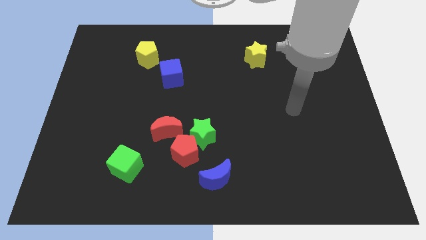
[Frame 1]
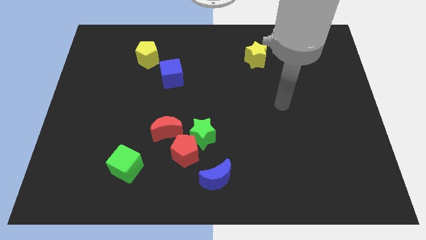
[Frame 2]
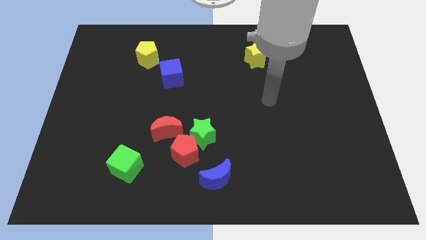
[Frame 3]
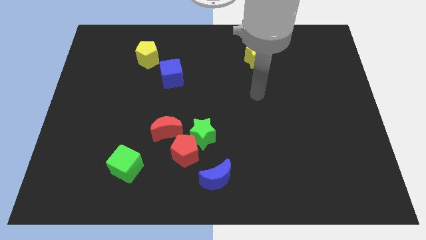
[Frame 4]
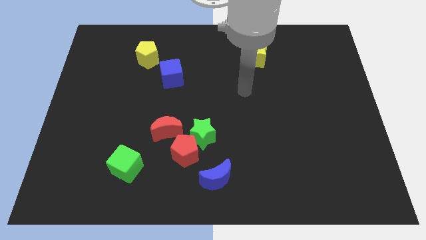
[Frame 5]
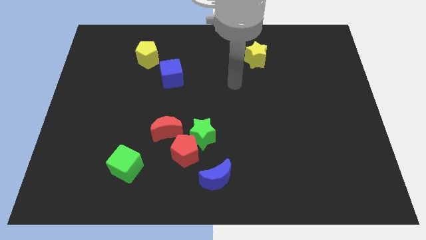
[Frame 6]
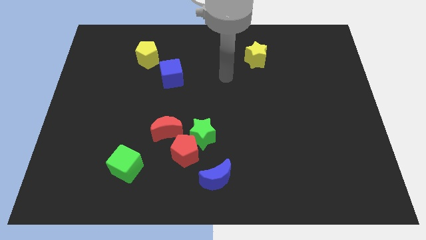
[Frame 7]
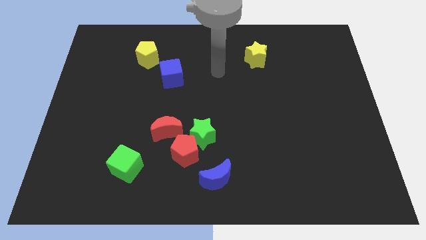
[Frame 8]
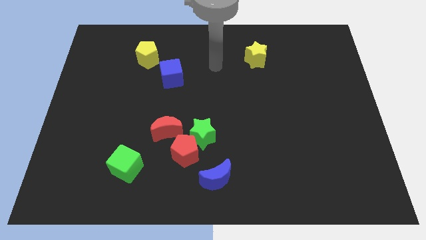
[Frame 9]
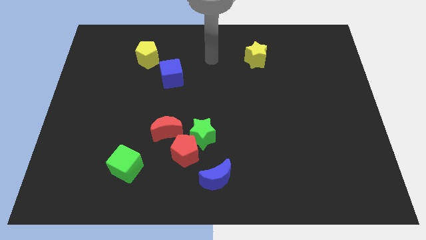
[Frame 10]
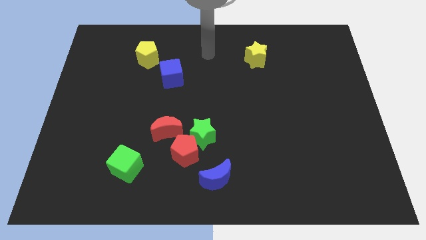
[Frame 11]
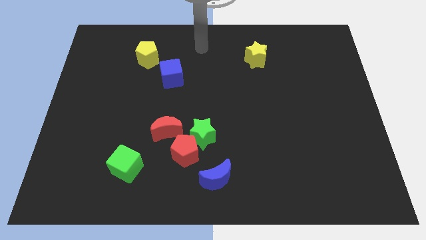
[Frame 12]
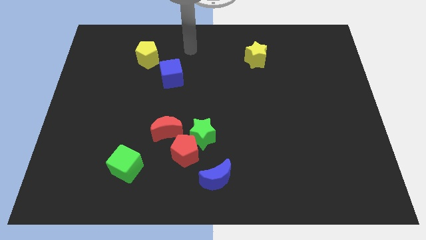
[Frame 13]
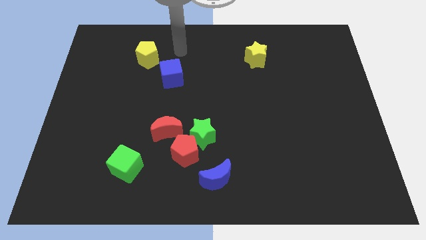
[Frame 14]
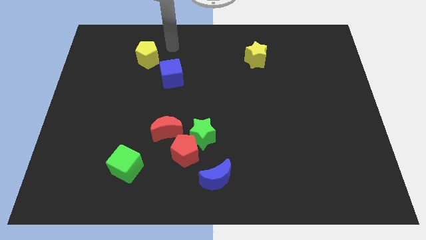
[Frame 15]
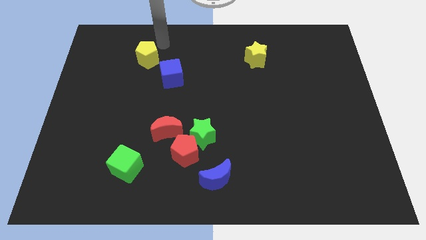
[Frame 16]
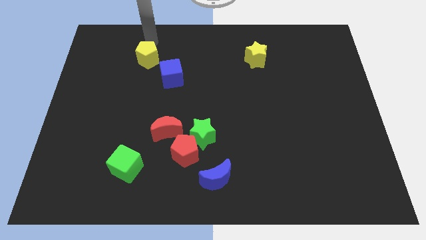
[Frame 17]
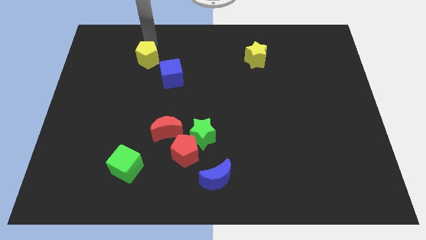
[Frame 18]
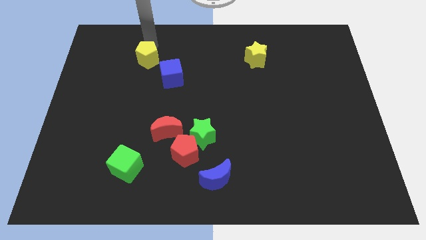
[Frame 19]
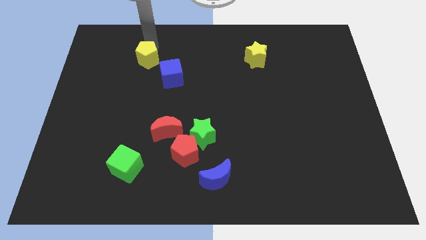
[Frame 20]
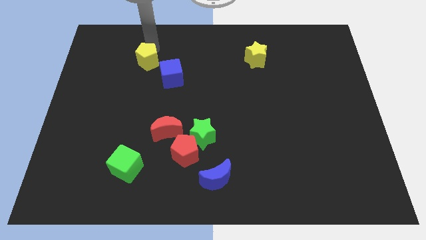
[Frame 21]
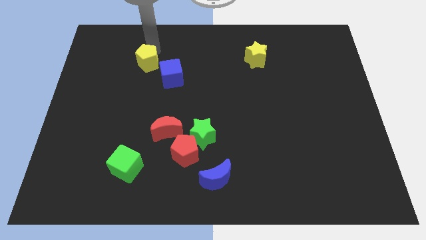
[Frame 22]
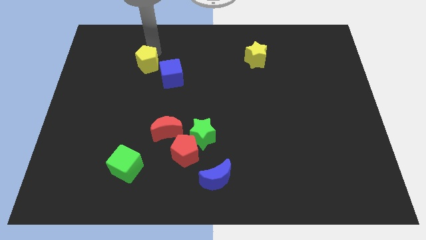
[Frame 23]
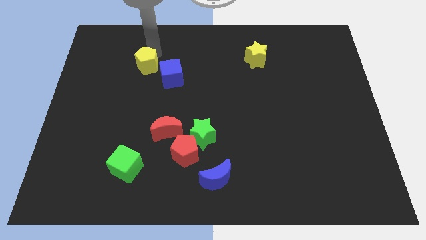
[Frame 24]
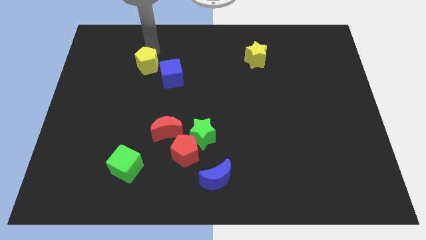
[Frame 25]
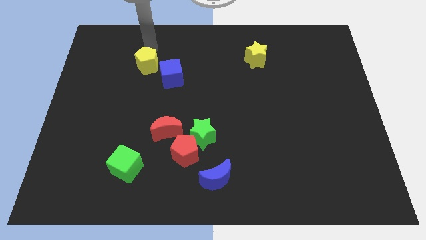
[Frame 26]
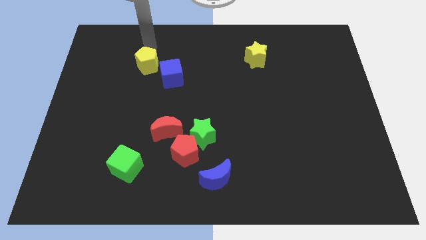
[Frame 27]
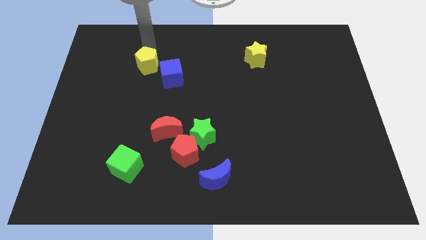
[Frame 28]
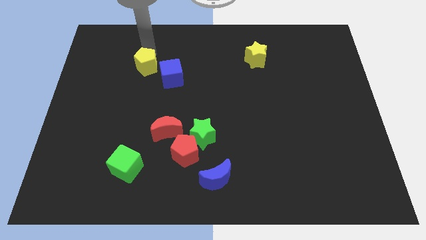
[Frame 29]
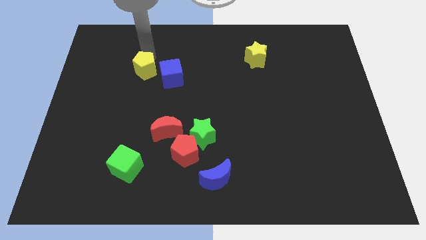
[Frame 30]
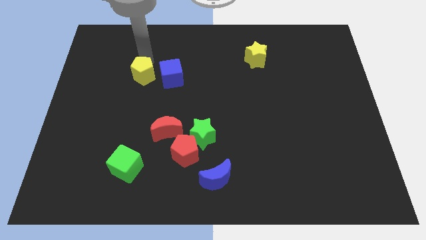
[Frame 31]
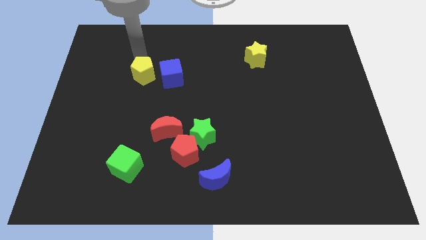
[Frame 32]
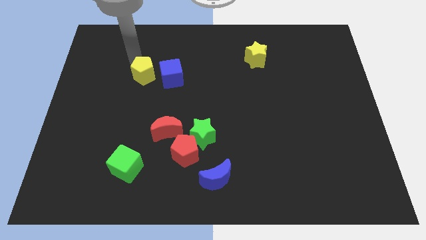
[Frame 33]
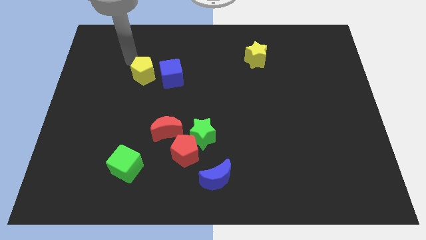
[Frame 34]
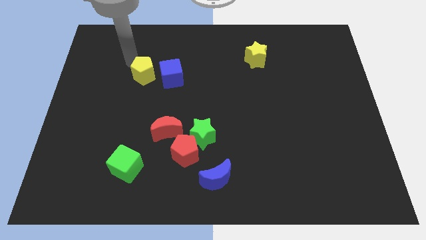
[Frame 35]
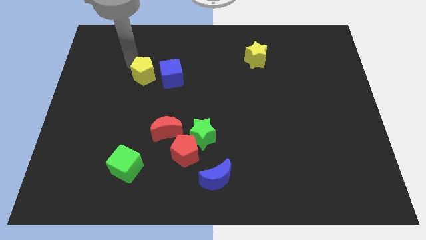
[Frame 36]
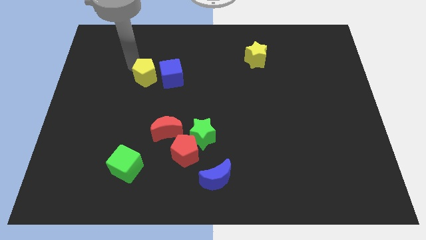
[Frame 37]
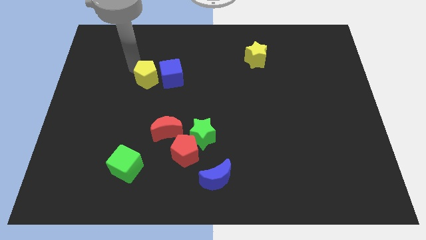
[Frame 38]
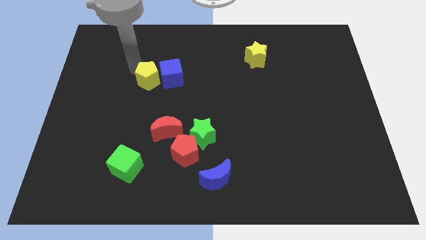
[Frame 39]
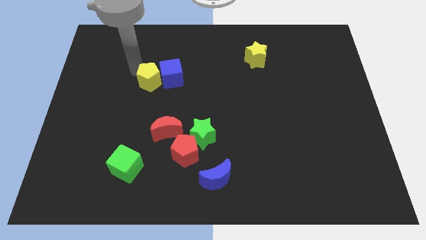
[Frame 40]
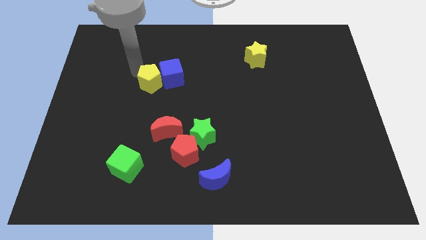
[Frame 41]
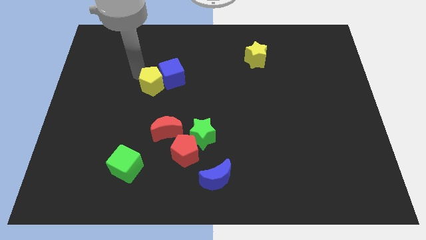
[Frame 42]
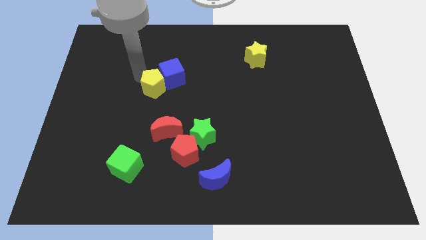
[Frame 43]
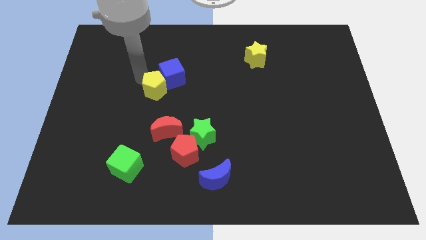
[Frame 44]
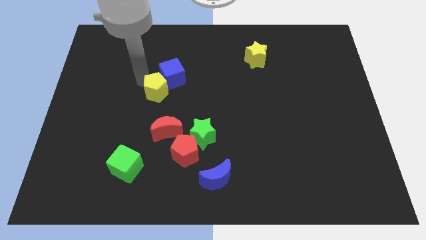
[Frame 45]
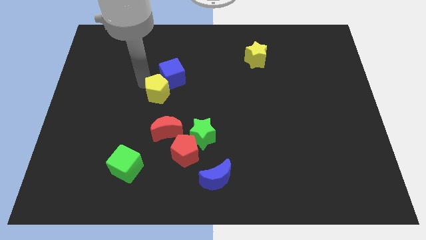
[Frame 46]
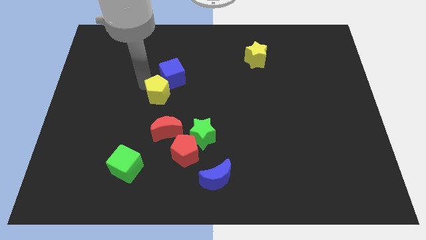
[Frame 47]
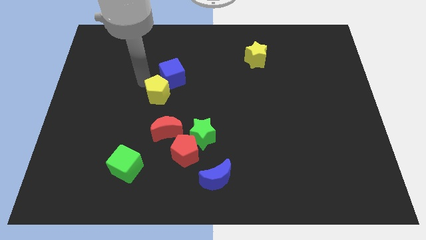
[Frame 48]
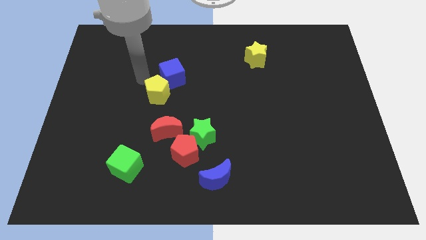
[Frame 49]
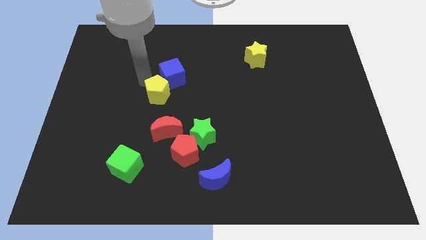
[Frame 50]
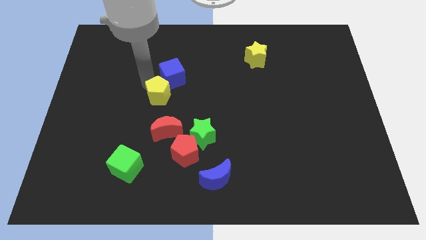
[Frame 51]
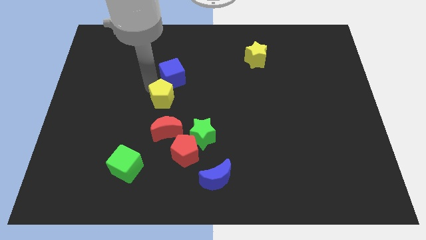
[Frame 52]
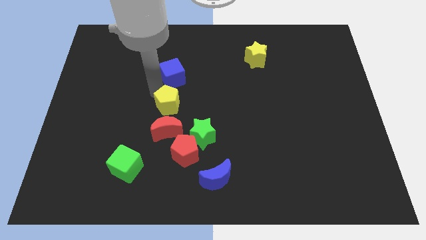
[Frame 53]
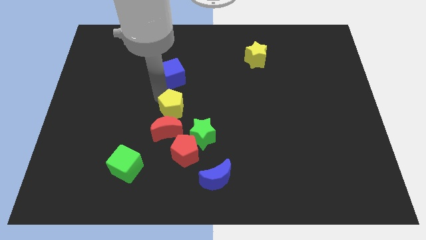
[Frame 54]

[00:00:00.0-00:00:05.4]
push the yellow pentagon to the top side of the red pentagon

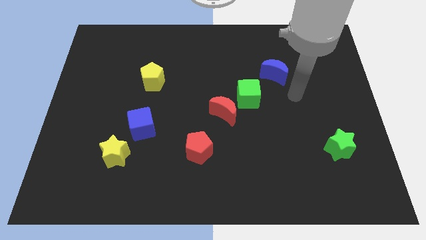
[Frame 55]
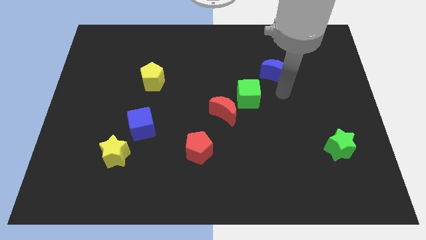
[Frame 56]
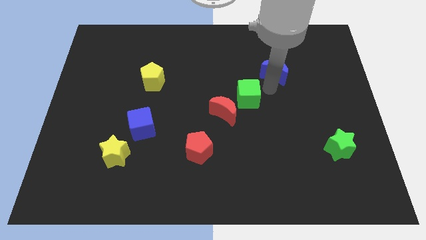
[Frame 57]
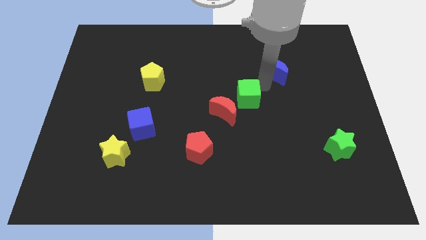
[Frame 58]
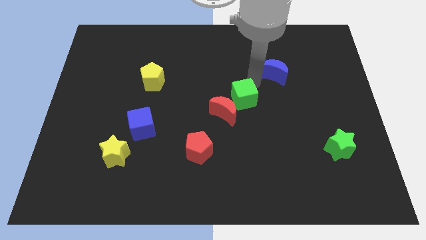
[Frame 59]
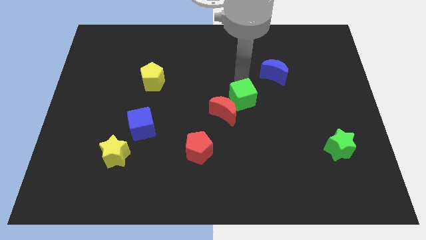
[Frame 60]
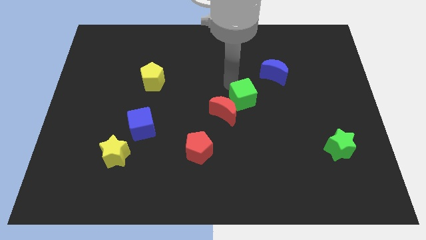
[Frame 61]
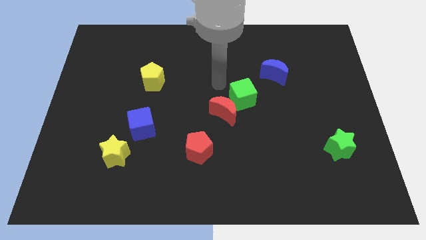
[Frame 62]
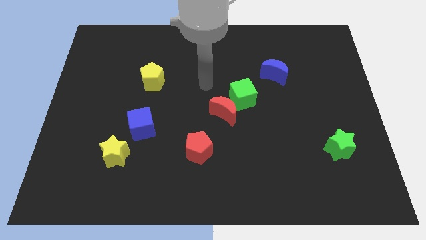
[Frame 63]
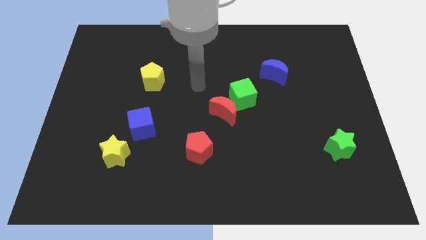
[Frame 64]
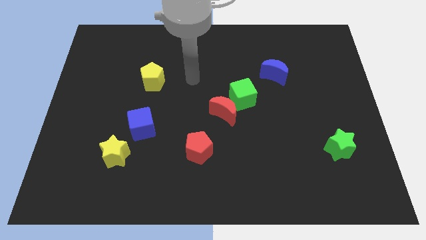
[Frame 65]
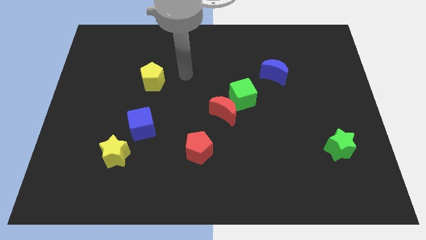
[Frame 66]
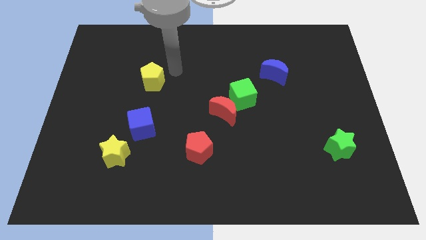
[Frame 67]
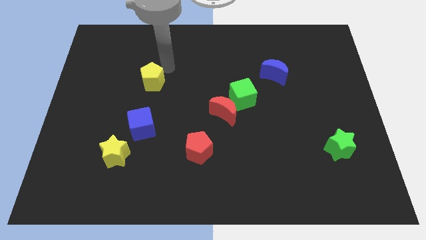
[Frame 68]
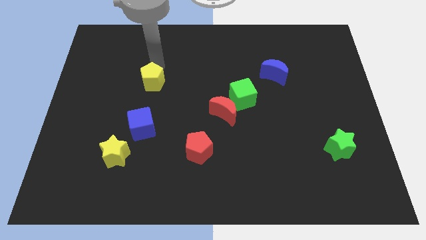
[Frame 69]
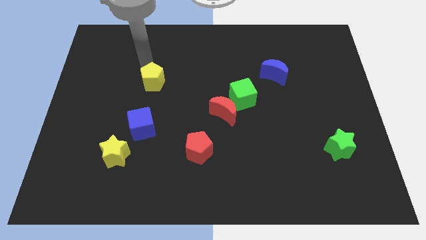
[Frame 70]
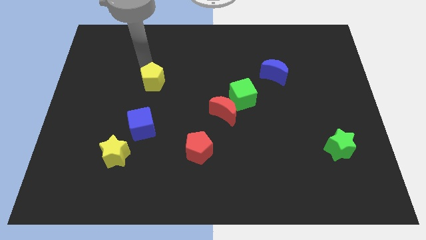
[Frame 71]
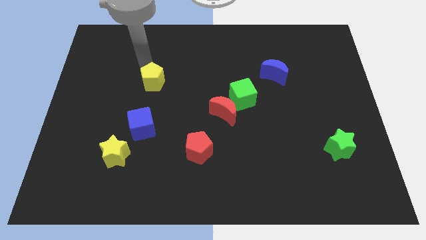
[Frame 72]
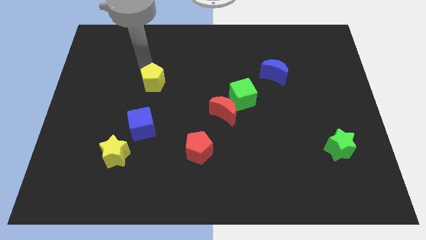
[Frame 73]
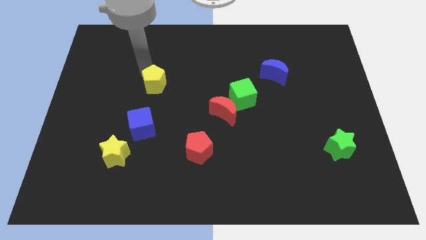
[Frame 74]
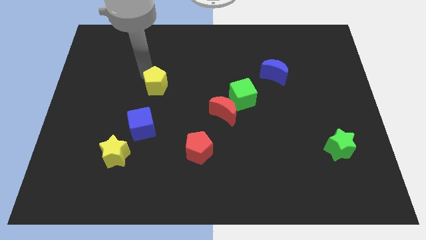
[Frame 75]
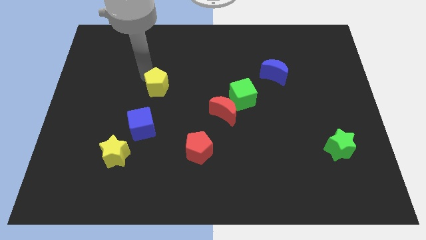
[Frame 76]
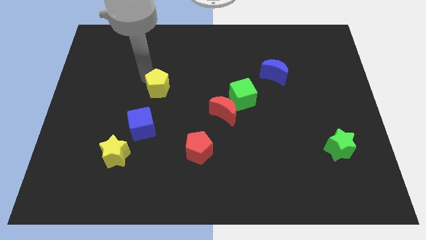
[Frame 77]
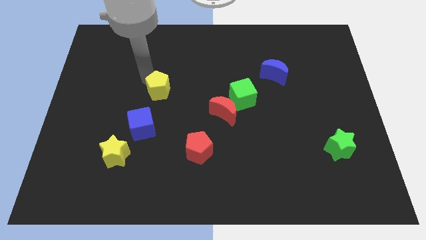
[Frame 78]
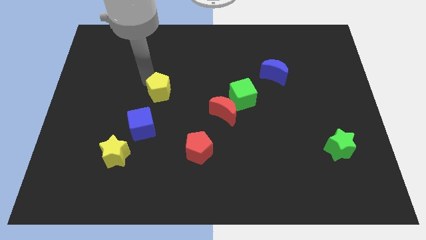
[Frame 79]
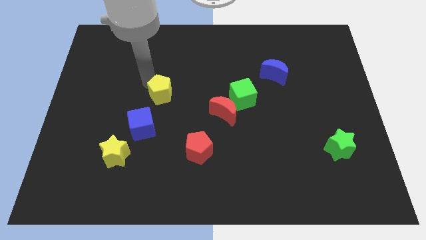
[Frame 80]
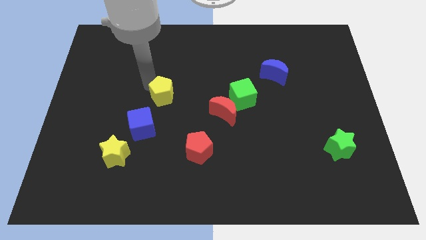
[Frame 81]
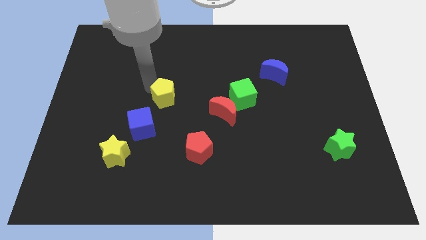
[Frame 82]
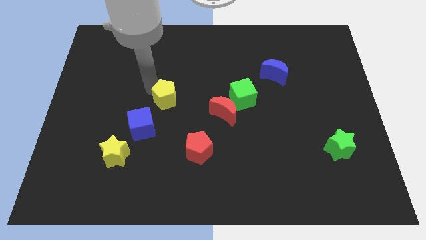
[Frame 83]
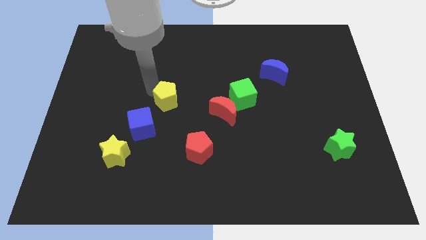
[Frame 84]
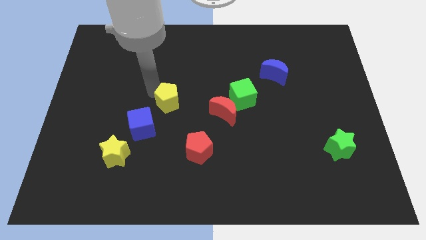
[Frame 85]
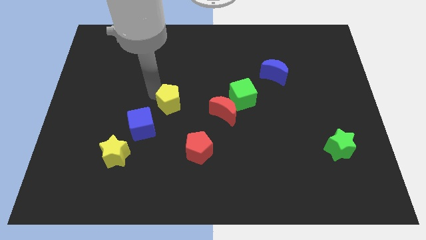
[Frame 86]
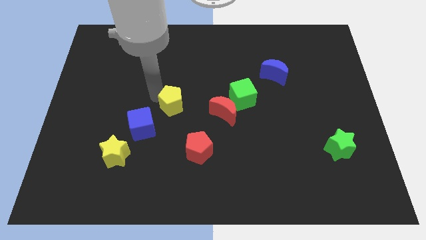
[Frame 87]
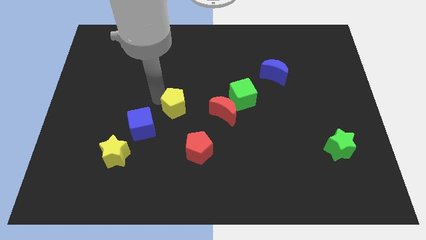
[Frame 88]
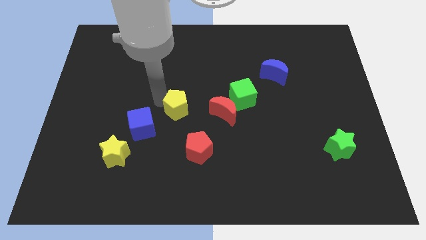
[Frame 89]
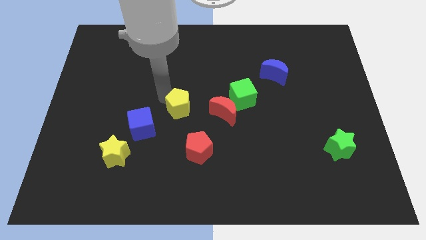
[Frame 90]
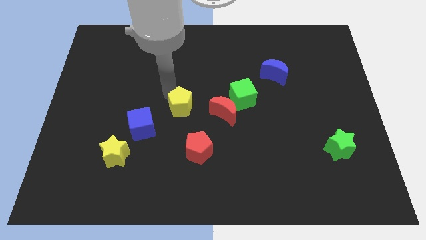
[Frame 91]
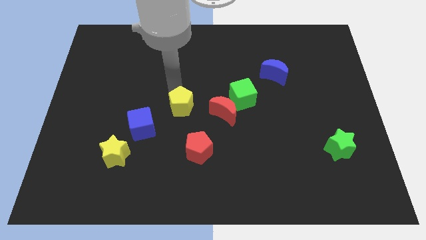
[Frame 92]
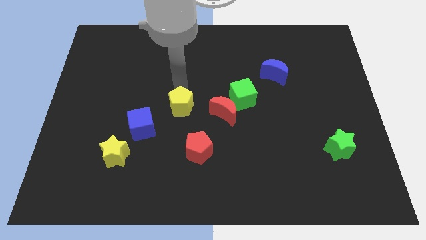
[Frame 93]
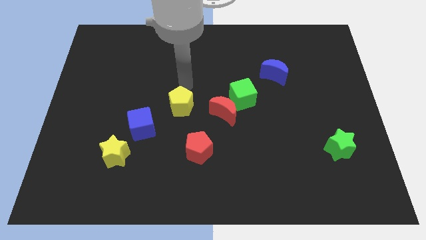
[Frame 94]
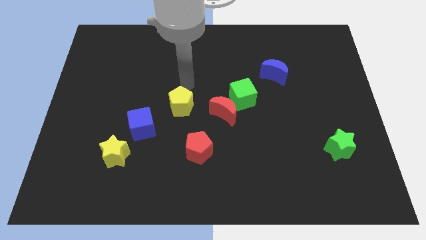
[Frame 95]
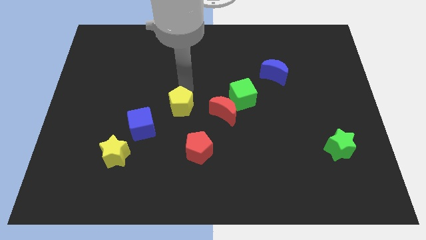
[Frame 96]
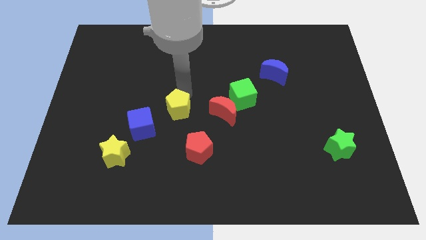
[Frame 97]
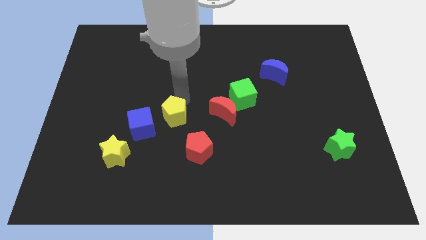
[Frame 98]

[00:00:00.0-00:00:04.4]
slide the yellow pentagon to the top left side of the red pentagon
